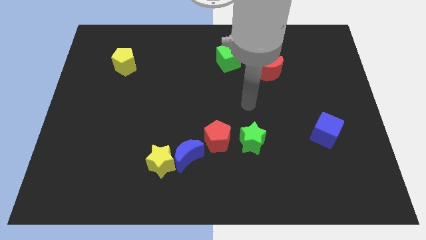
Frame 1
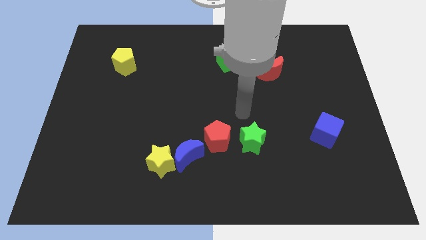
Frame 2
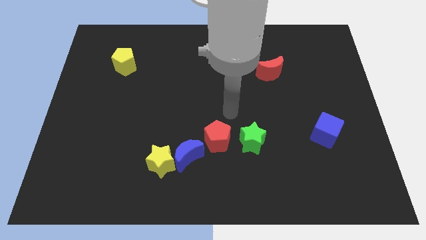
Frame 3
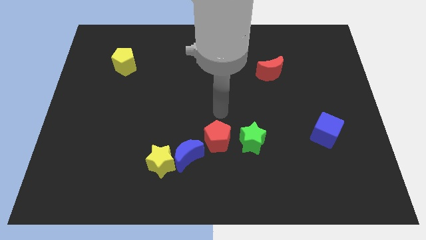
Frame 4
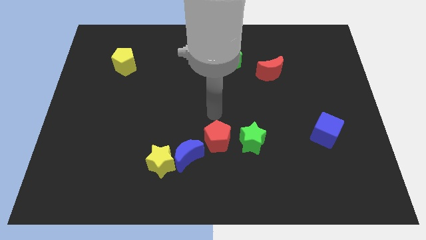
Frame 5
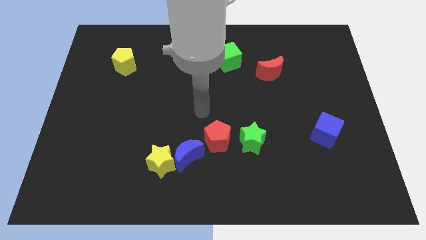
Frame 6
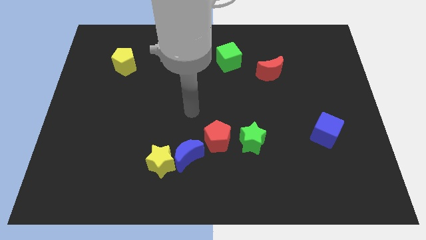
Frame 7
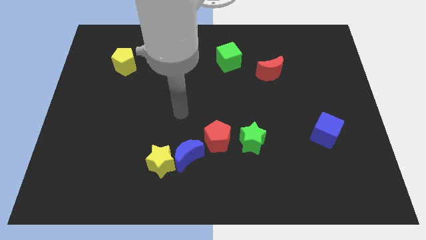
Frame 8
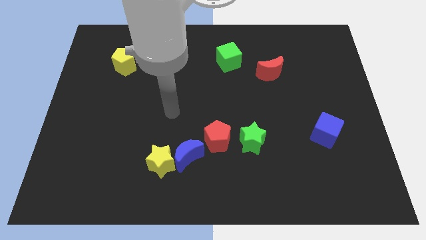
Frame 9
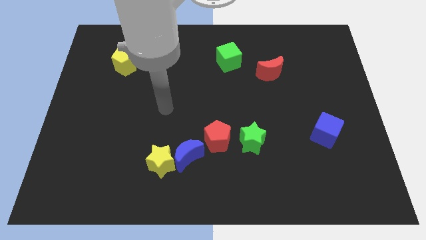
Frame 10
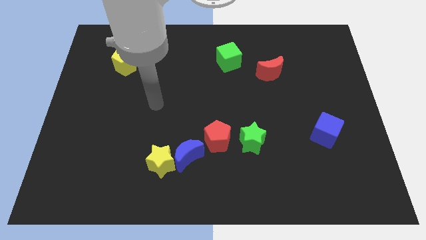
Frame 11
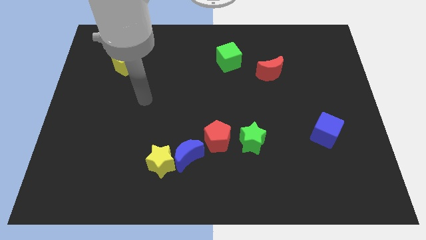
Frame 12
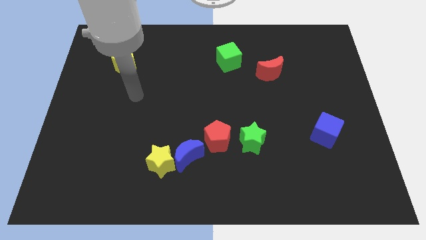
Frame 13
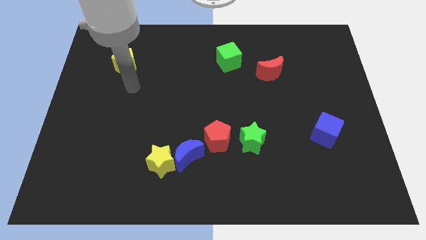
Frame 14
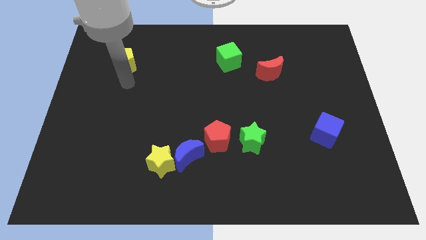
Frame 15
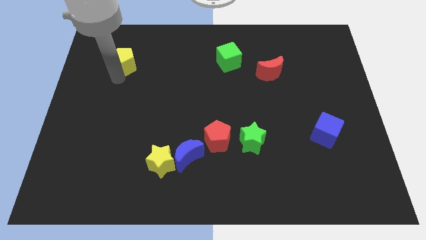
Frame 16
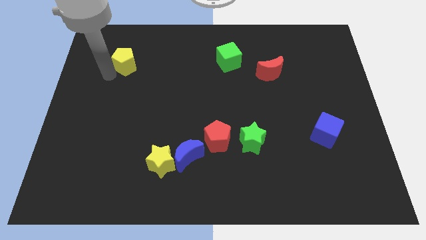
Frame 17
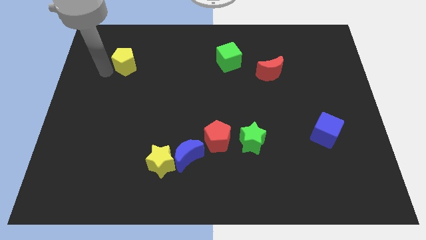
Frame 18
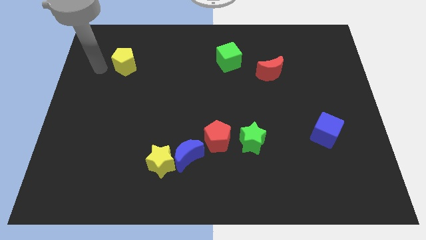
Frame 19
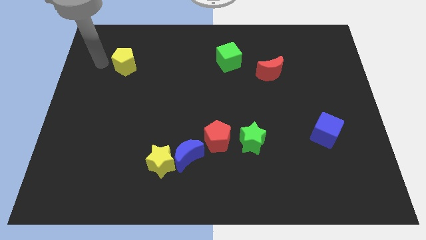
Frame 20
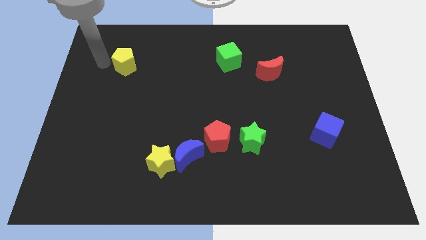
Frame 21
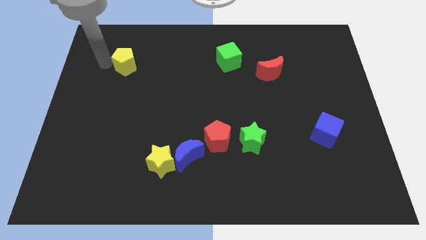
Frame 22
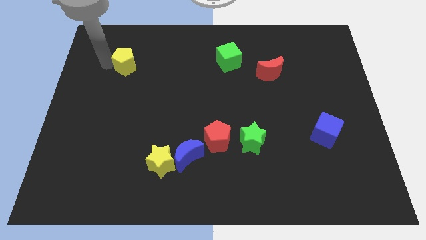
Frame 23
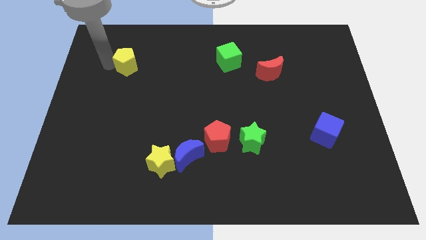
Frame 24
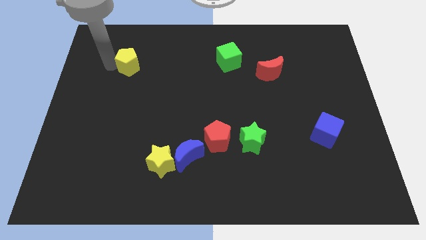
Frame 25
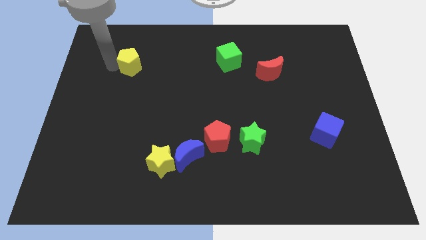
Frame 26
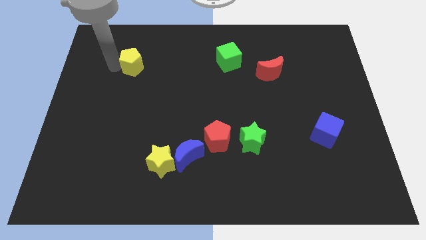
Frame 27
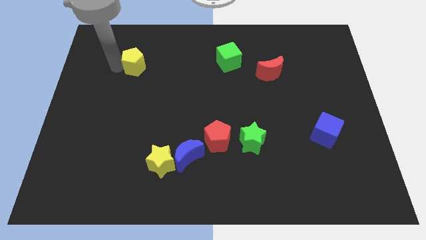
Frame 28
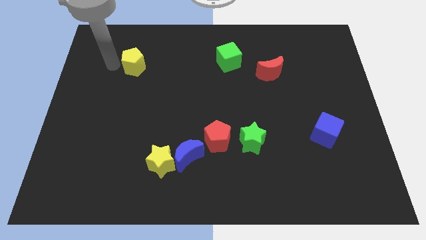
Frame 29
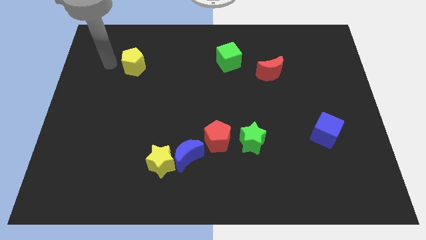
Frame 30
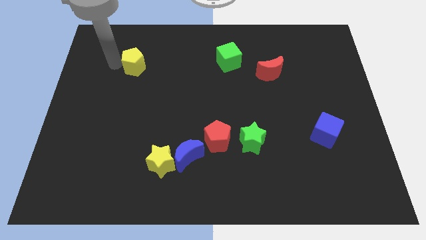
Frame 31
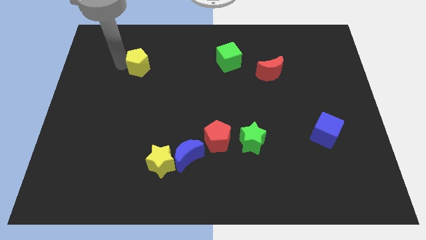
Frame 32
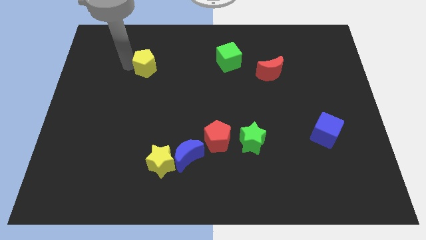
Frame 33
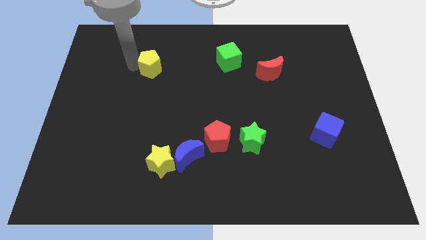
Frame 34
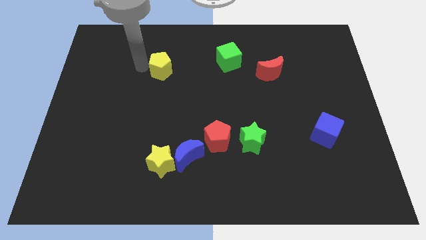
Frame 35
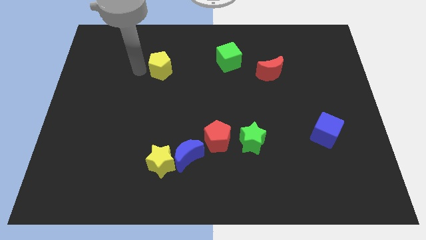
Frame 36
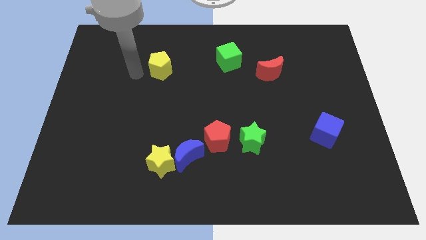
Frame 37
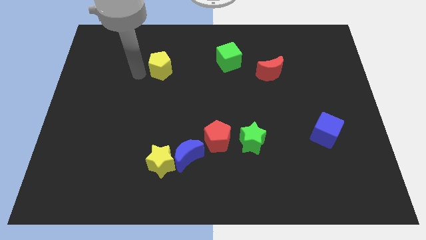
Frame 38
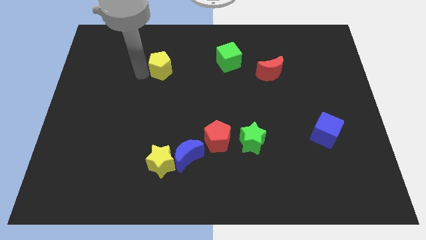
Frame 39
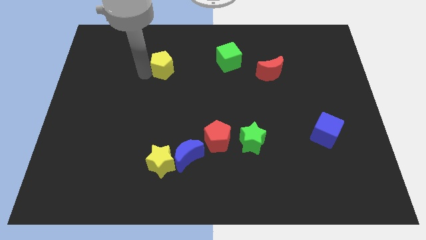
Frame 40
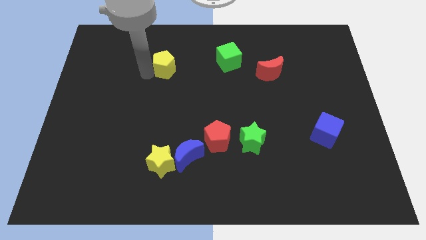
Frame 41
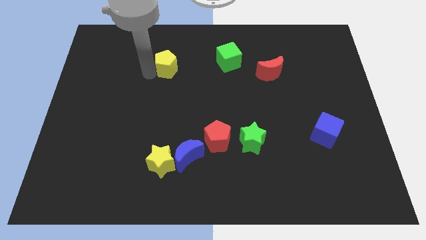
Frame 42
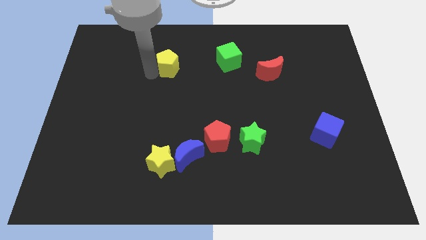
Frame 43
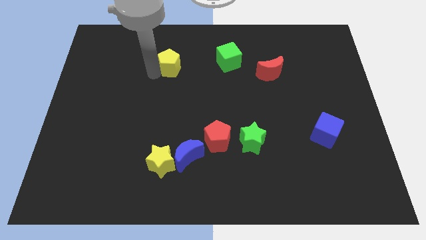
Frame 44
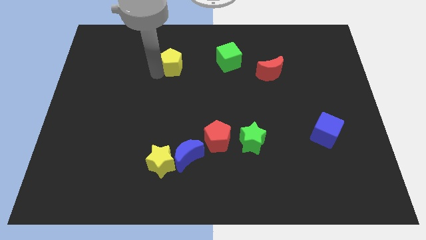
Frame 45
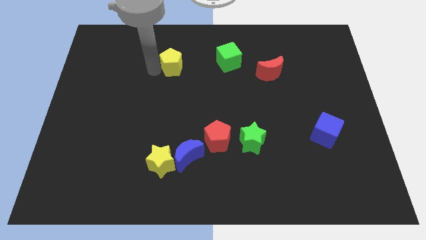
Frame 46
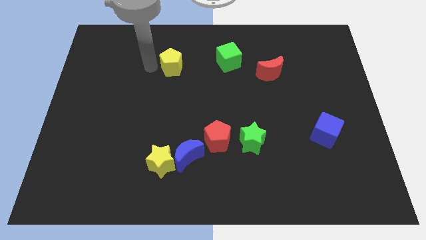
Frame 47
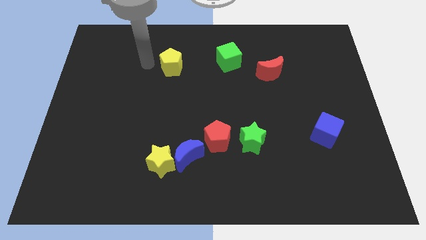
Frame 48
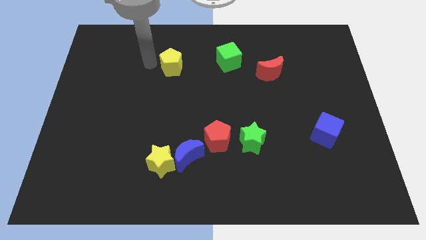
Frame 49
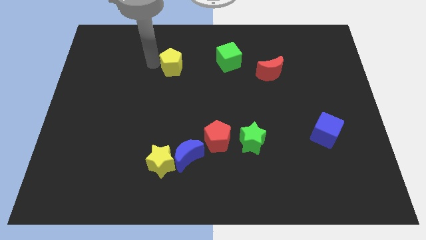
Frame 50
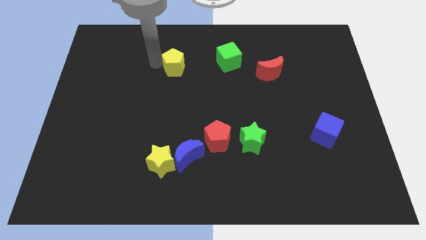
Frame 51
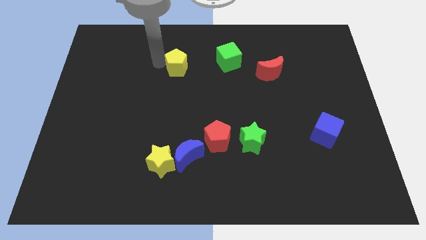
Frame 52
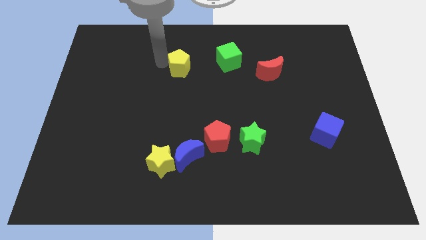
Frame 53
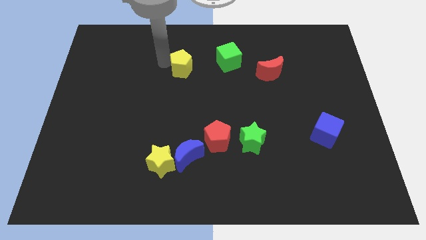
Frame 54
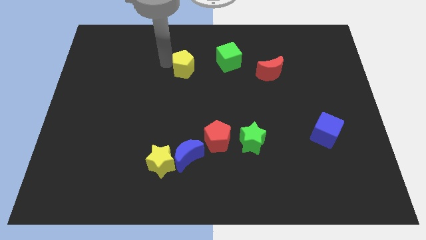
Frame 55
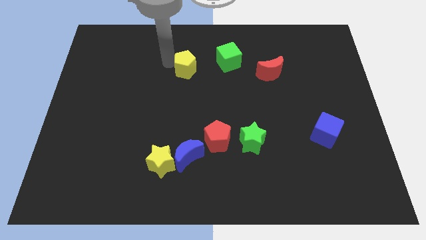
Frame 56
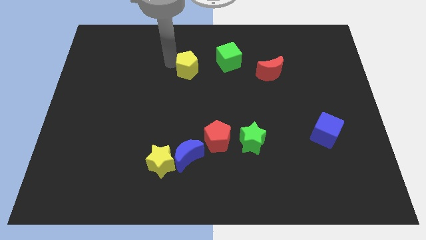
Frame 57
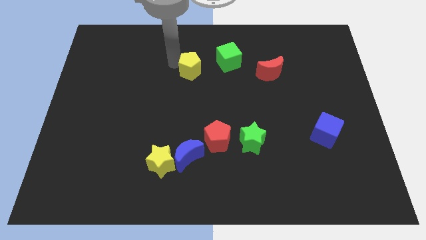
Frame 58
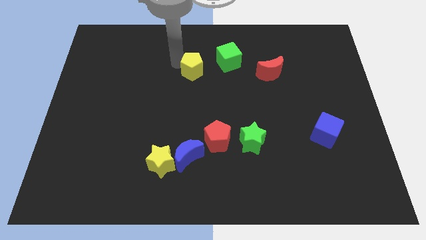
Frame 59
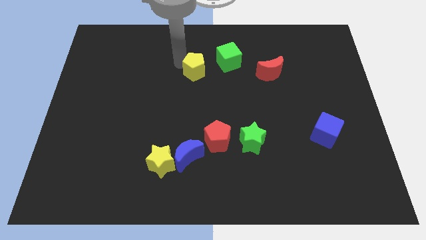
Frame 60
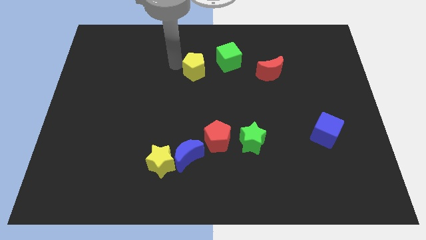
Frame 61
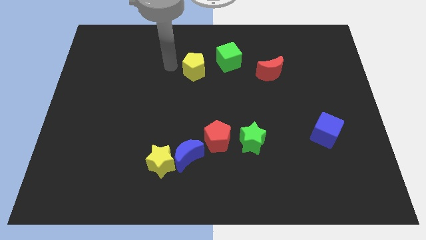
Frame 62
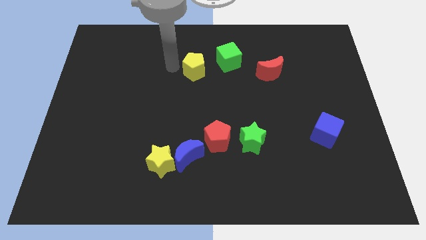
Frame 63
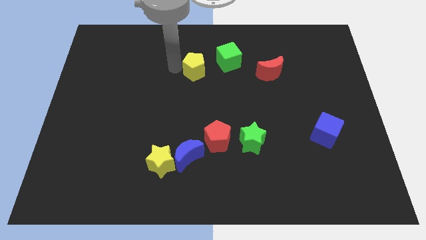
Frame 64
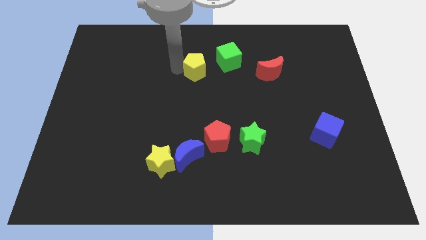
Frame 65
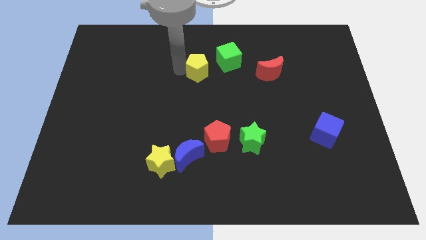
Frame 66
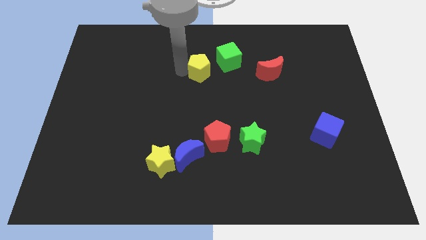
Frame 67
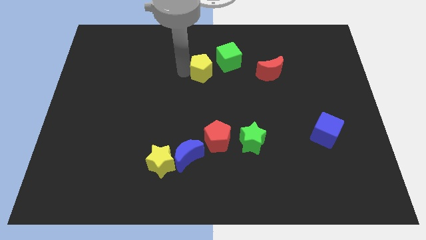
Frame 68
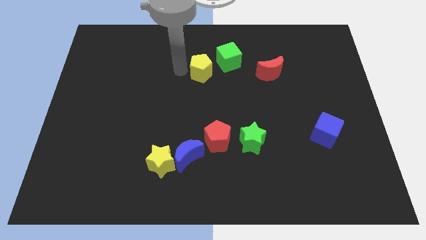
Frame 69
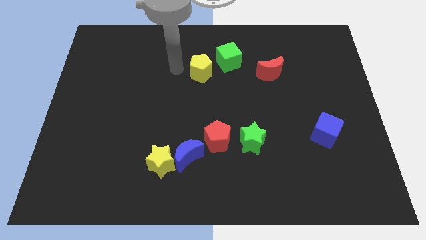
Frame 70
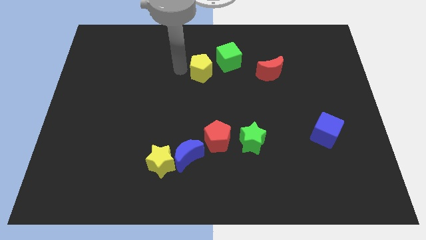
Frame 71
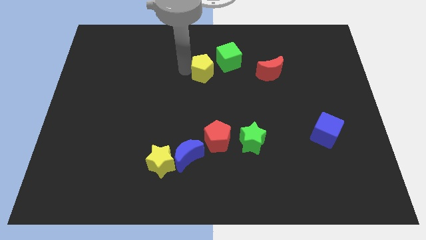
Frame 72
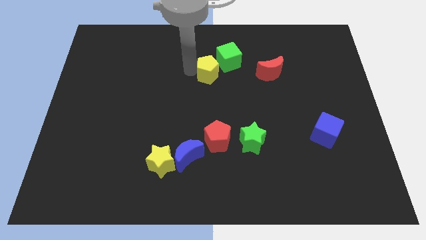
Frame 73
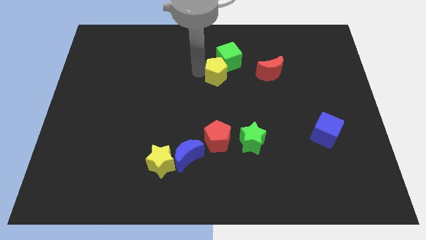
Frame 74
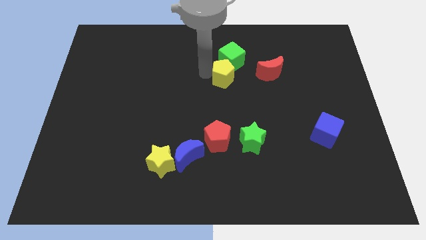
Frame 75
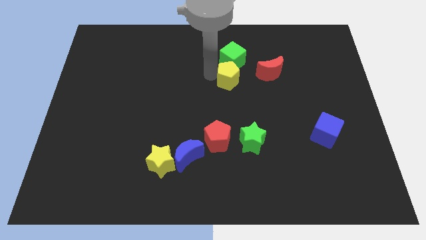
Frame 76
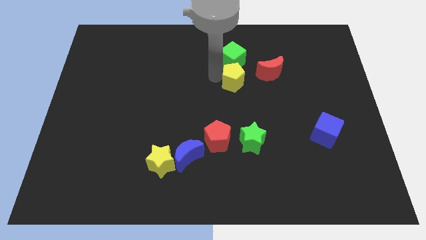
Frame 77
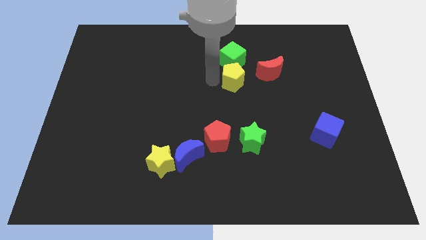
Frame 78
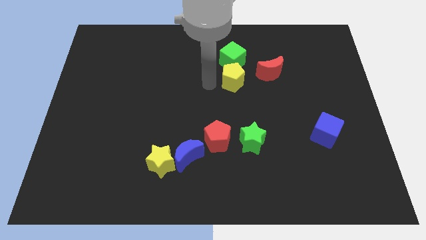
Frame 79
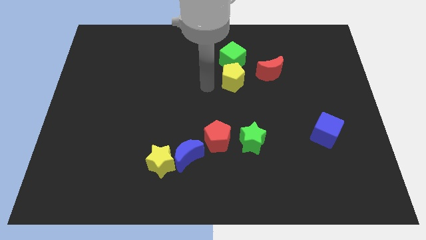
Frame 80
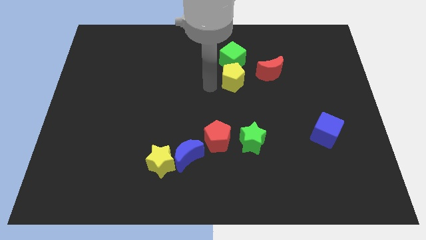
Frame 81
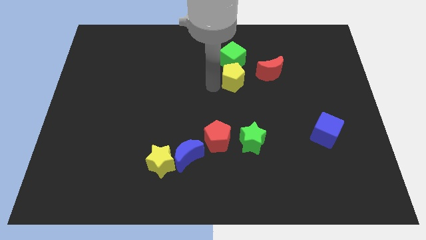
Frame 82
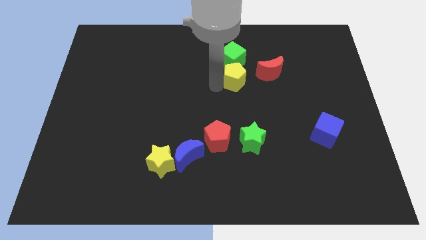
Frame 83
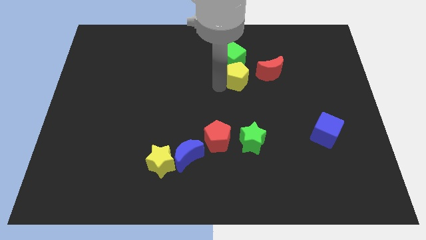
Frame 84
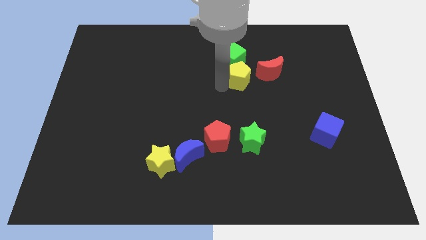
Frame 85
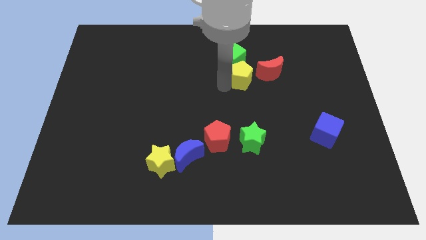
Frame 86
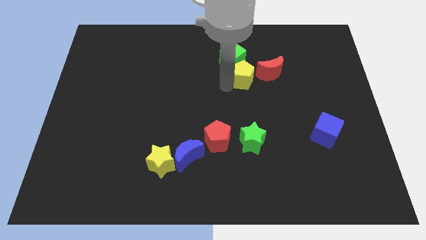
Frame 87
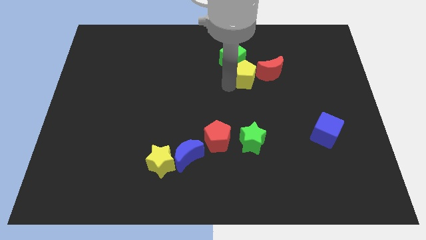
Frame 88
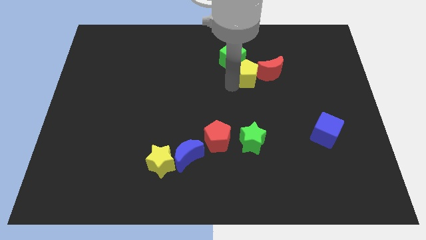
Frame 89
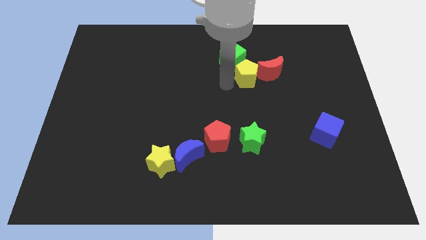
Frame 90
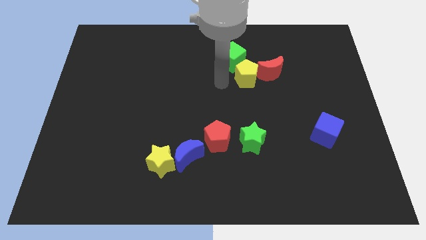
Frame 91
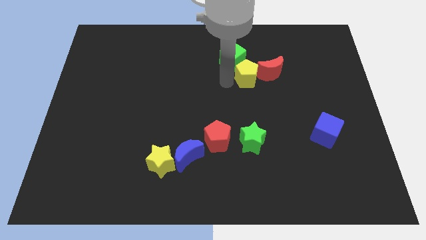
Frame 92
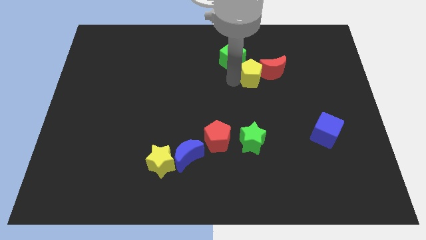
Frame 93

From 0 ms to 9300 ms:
push the yellow pentagon towards the red moon
